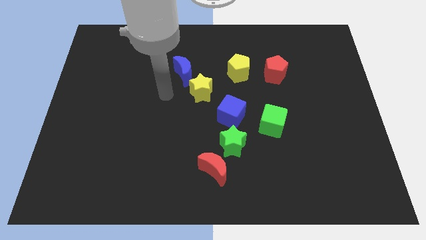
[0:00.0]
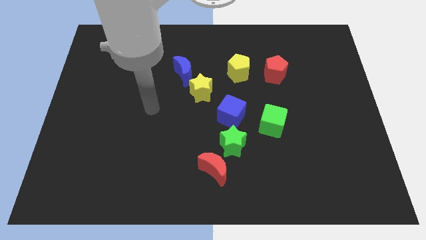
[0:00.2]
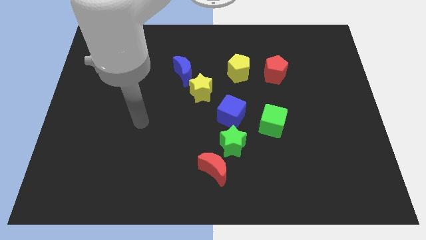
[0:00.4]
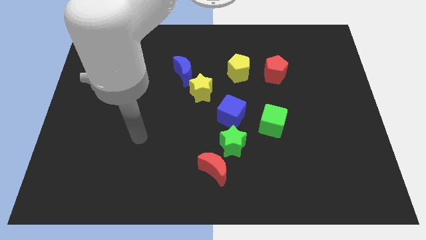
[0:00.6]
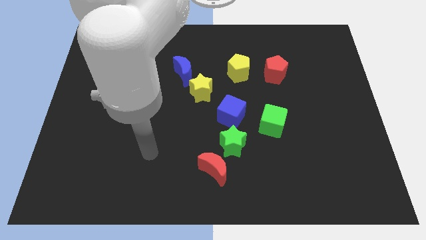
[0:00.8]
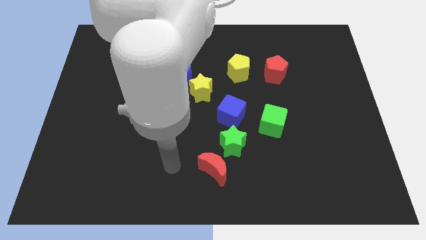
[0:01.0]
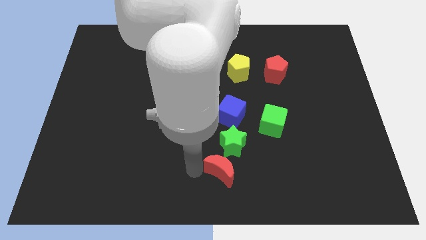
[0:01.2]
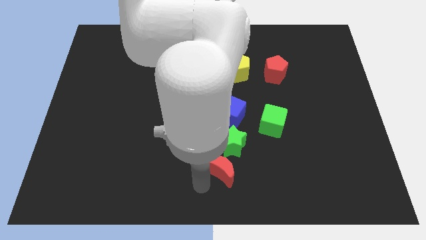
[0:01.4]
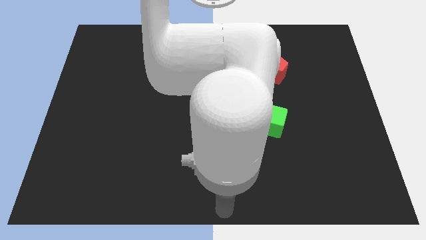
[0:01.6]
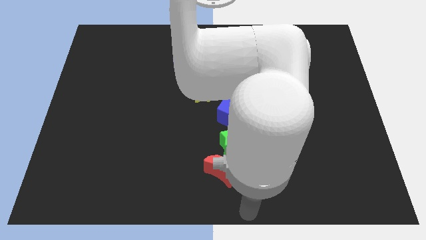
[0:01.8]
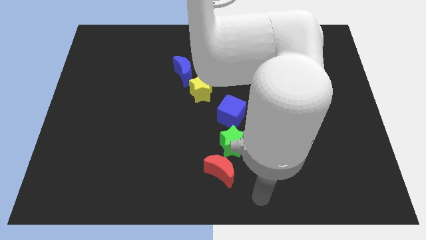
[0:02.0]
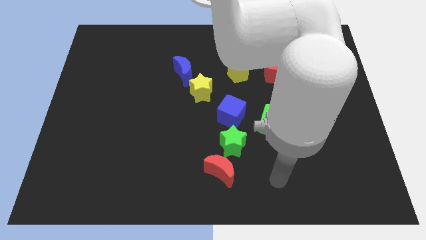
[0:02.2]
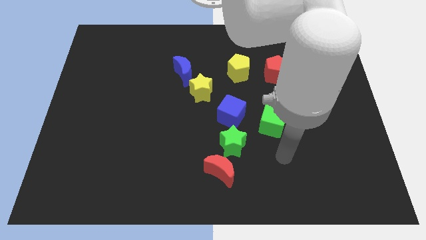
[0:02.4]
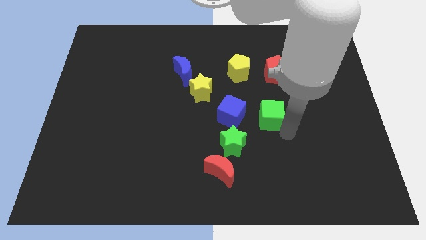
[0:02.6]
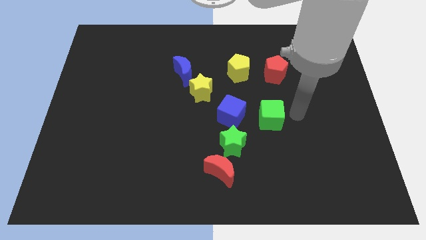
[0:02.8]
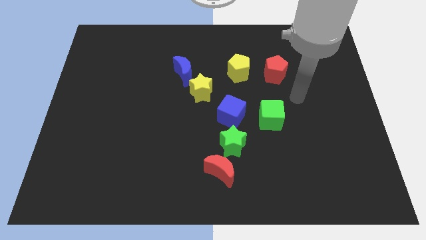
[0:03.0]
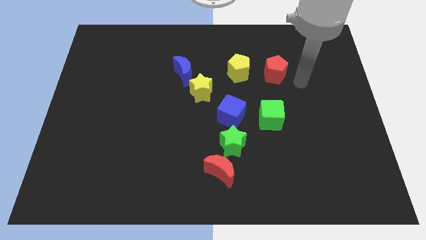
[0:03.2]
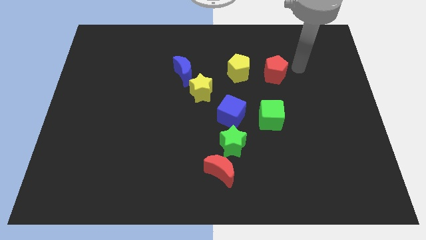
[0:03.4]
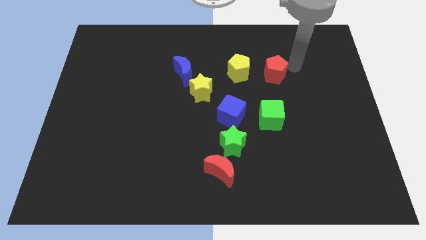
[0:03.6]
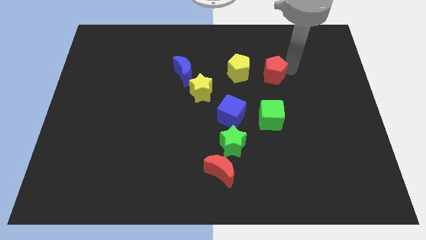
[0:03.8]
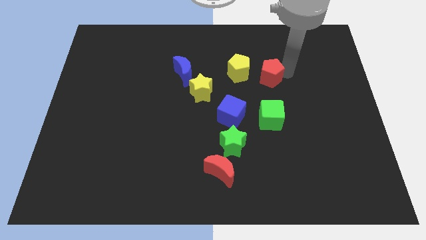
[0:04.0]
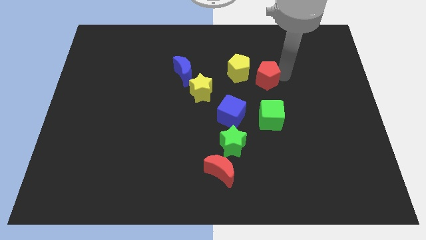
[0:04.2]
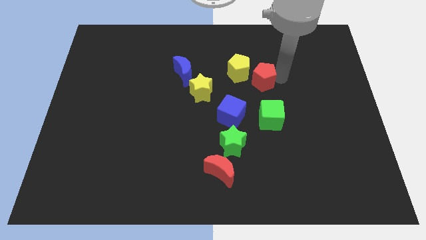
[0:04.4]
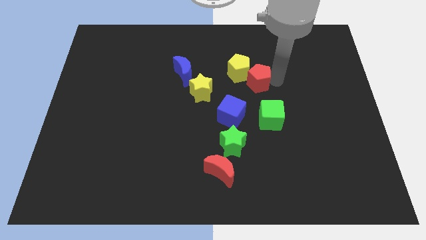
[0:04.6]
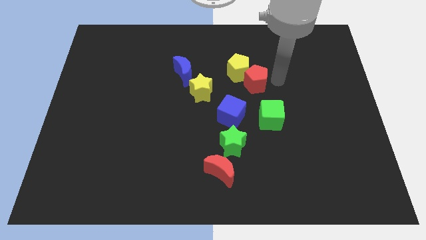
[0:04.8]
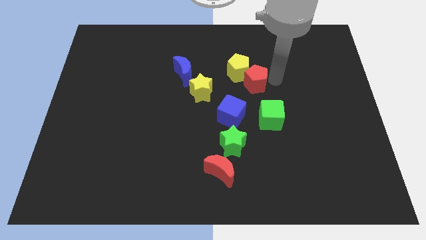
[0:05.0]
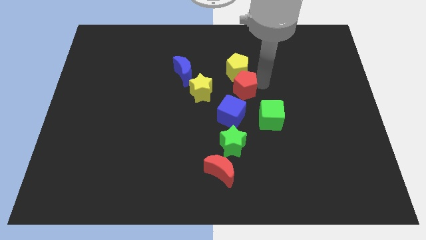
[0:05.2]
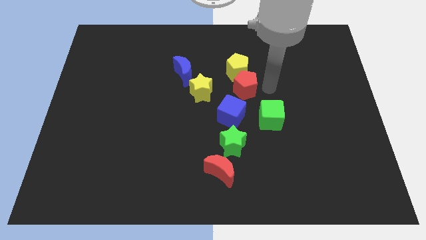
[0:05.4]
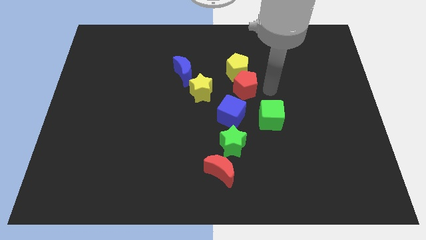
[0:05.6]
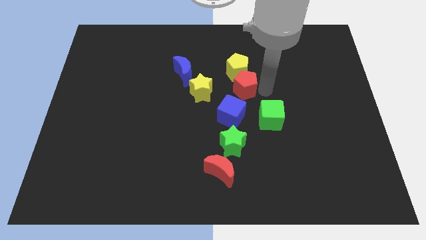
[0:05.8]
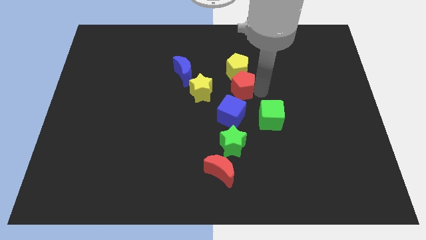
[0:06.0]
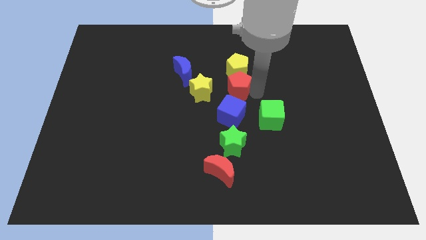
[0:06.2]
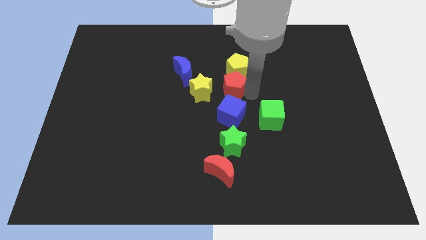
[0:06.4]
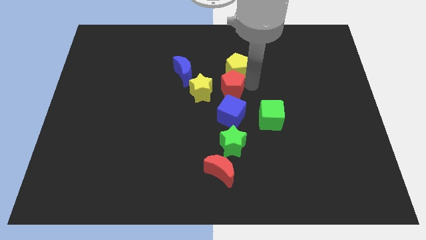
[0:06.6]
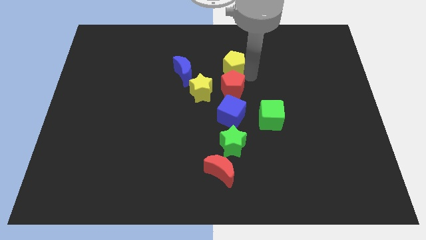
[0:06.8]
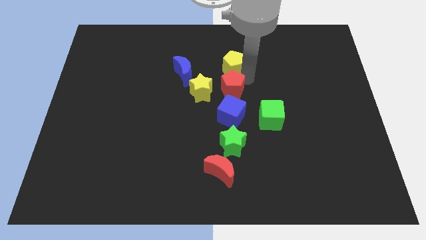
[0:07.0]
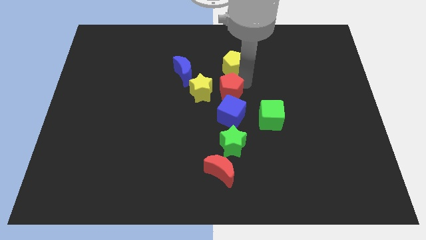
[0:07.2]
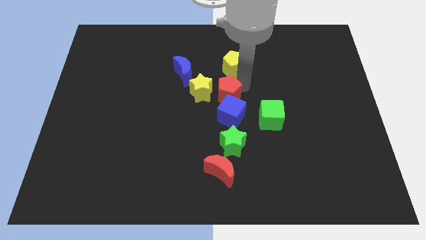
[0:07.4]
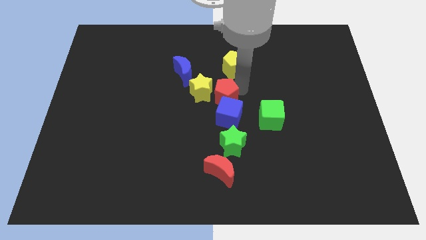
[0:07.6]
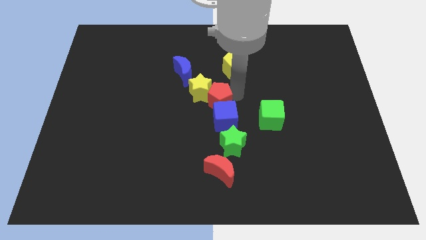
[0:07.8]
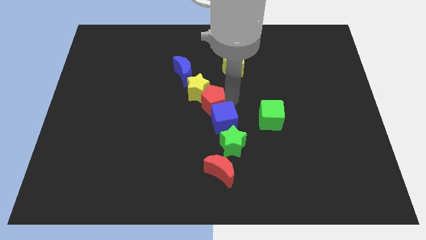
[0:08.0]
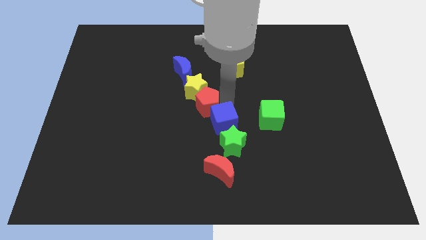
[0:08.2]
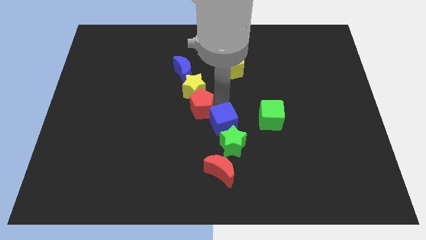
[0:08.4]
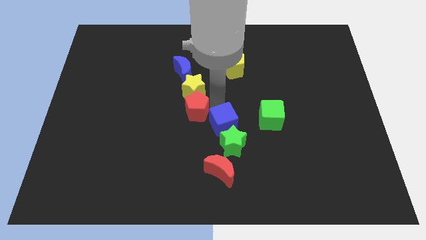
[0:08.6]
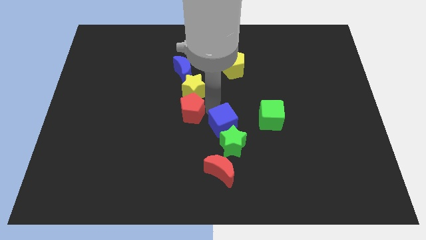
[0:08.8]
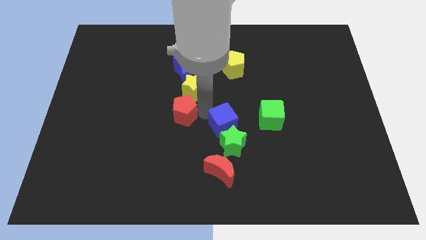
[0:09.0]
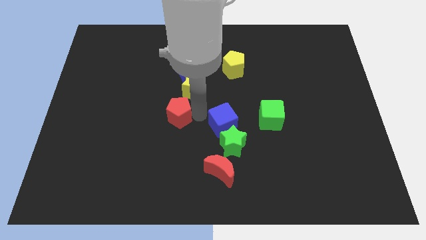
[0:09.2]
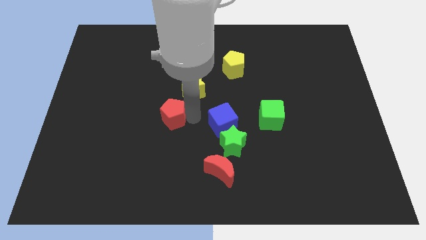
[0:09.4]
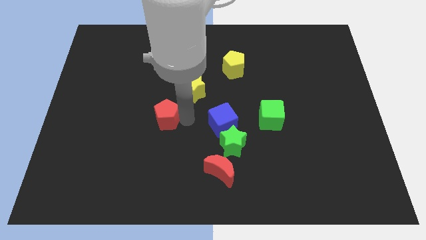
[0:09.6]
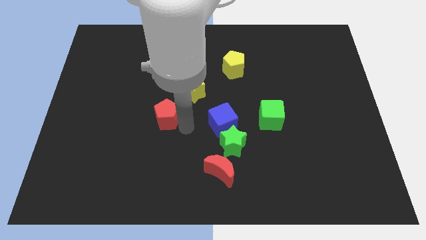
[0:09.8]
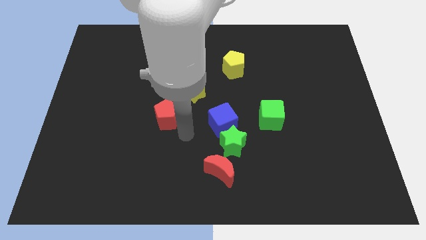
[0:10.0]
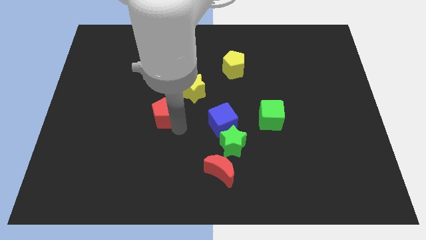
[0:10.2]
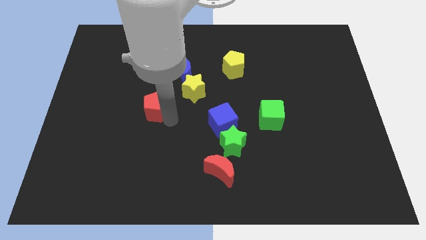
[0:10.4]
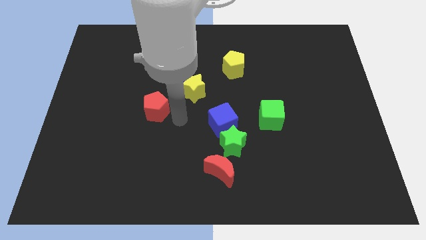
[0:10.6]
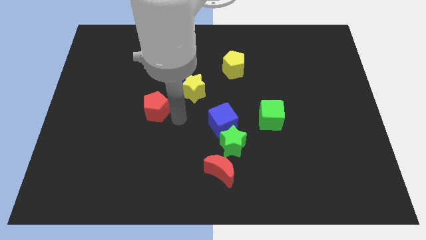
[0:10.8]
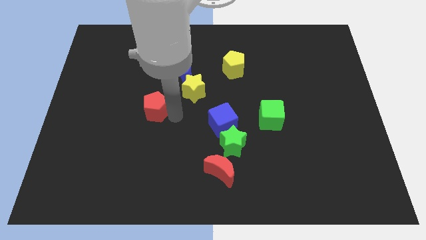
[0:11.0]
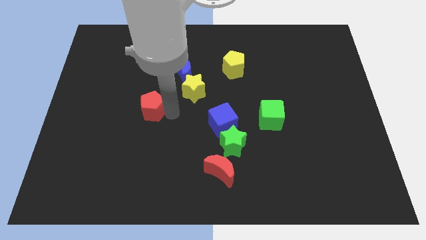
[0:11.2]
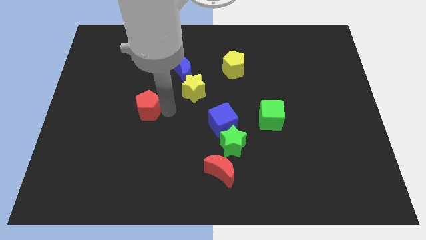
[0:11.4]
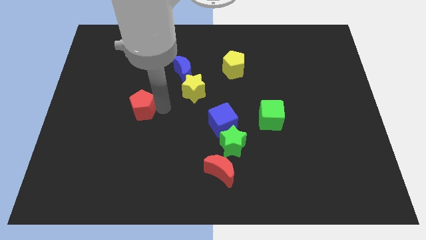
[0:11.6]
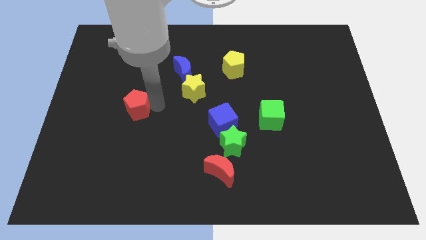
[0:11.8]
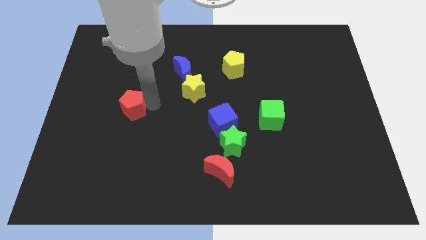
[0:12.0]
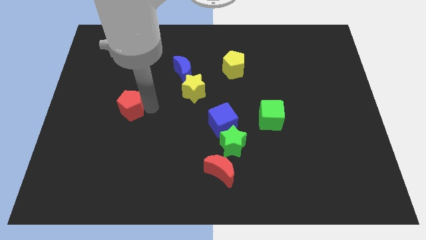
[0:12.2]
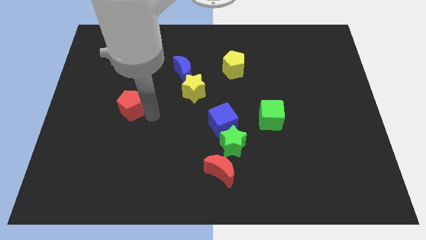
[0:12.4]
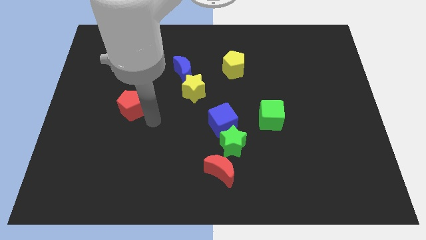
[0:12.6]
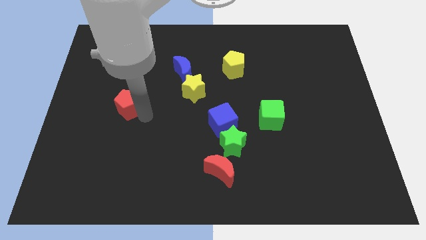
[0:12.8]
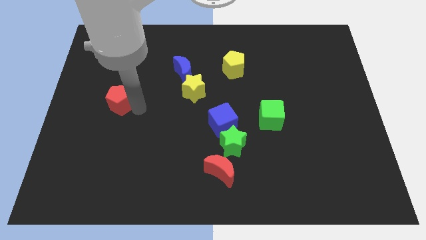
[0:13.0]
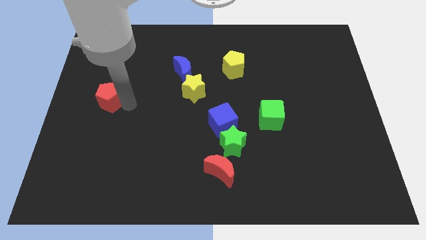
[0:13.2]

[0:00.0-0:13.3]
move the red pentagon to the center left
